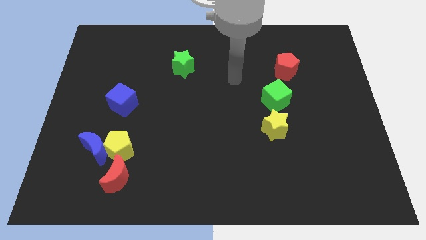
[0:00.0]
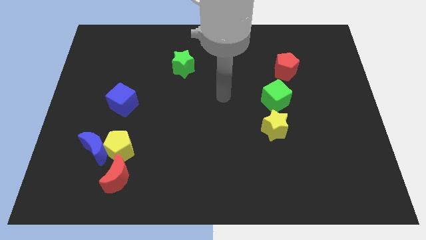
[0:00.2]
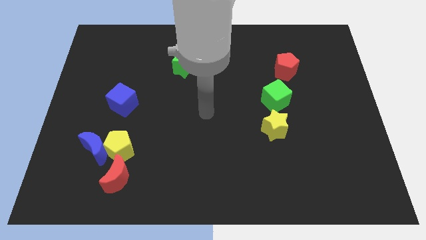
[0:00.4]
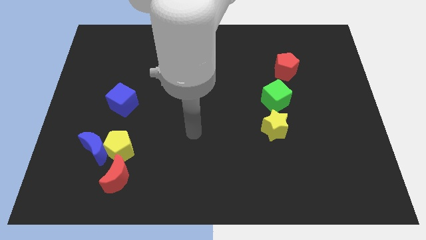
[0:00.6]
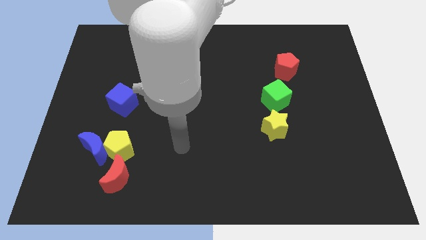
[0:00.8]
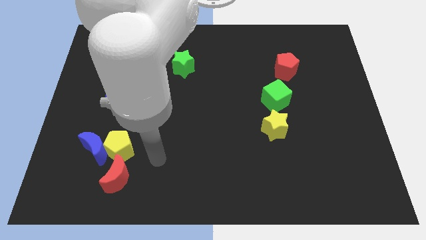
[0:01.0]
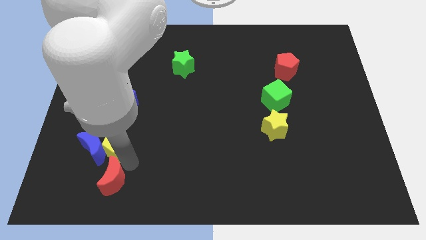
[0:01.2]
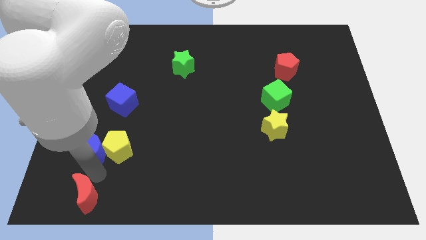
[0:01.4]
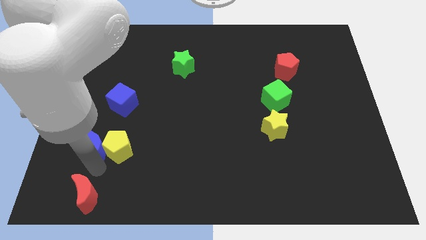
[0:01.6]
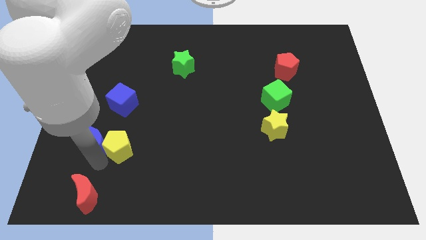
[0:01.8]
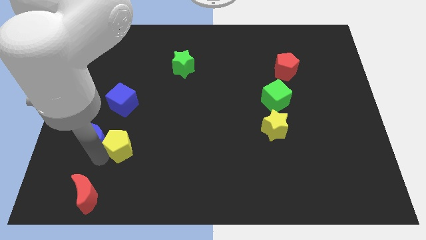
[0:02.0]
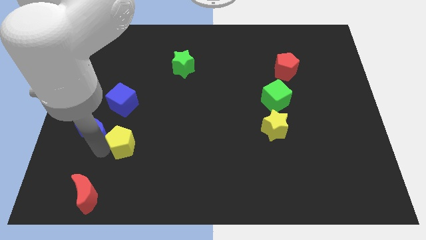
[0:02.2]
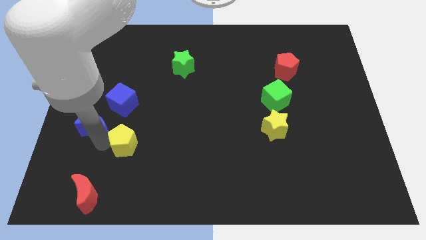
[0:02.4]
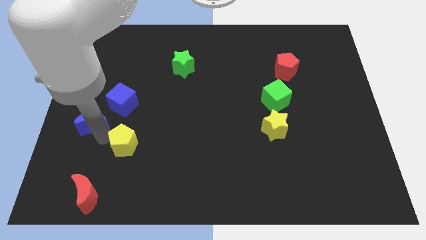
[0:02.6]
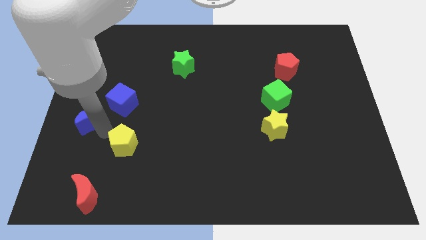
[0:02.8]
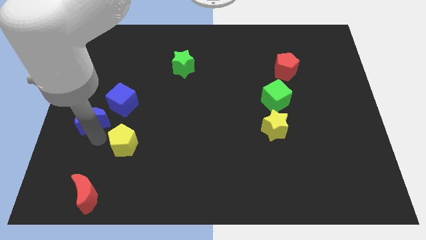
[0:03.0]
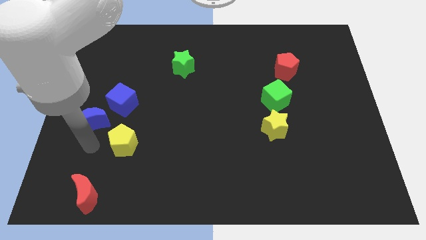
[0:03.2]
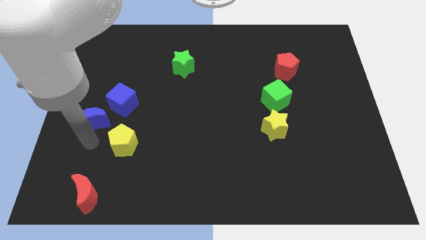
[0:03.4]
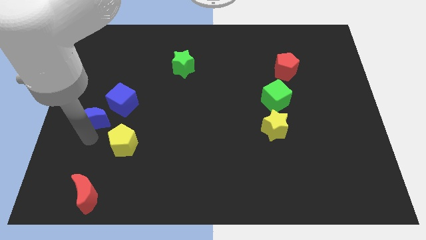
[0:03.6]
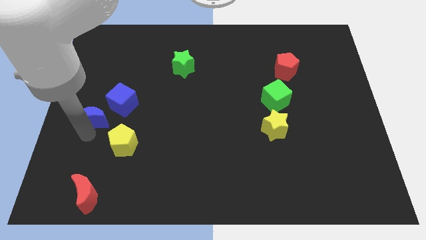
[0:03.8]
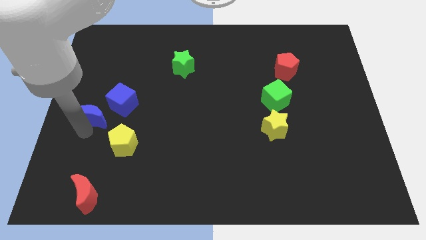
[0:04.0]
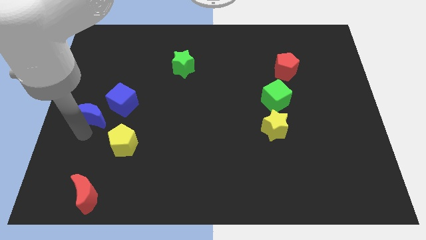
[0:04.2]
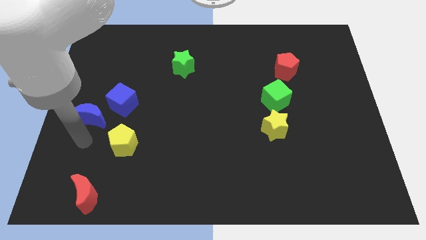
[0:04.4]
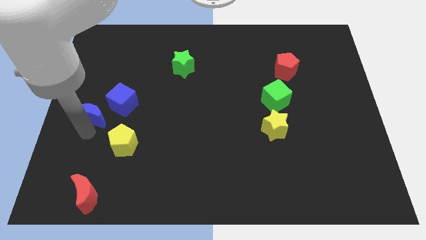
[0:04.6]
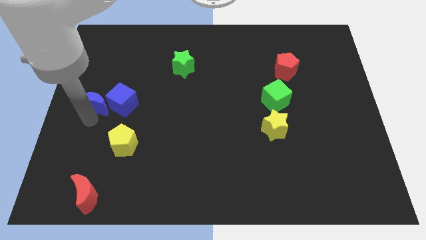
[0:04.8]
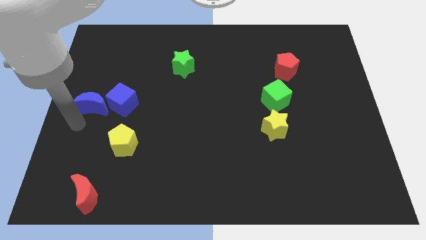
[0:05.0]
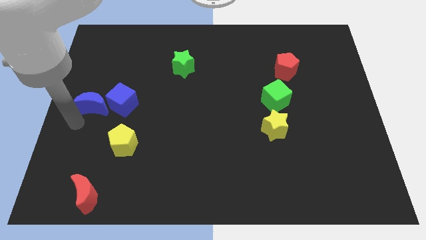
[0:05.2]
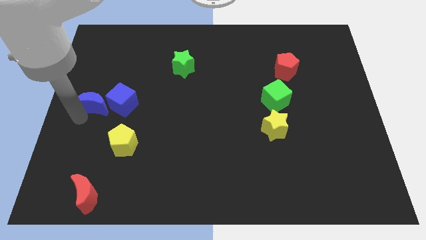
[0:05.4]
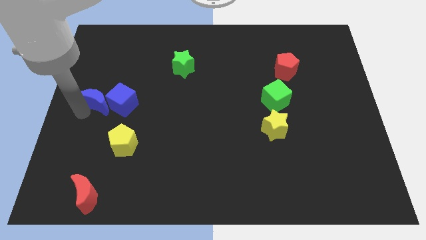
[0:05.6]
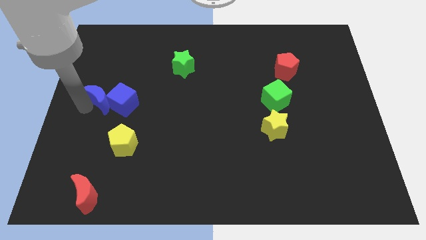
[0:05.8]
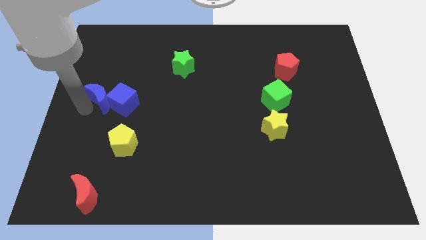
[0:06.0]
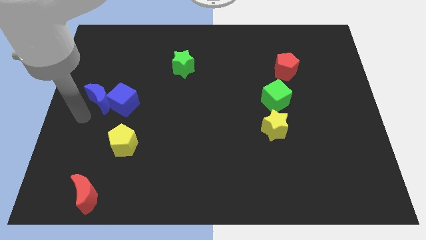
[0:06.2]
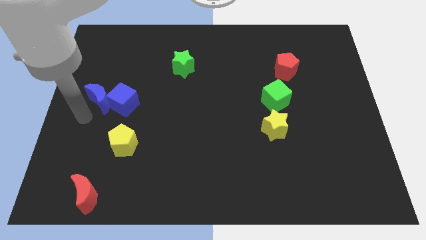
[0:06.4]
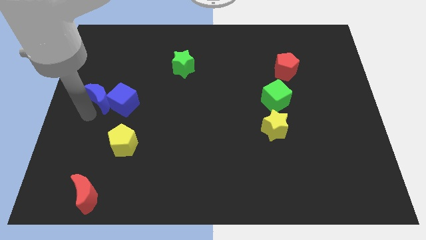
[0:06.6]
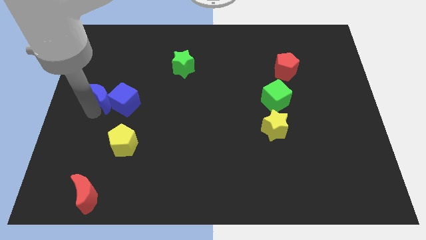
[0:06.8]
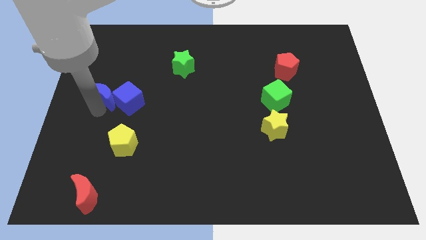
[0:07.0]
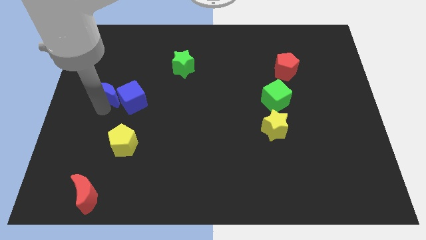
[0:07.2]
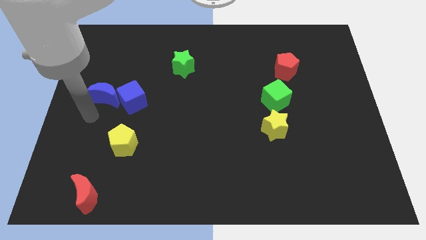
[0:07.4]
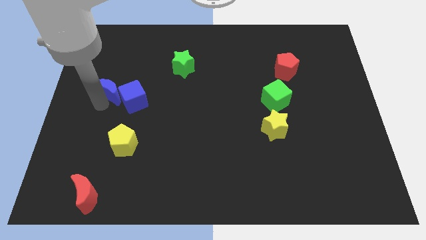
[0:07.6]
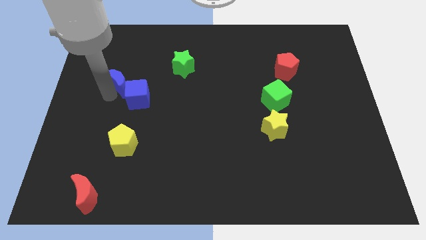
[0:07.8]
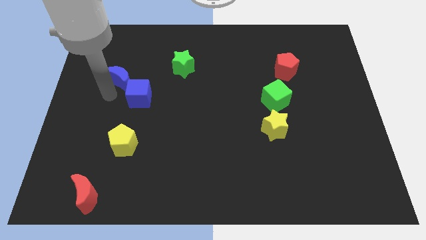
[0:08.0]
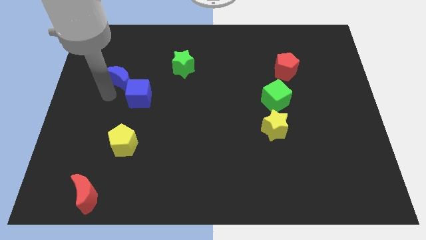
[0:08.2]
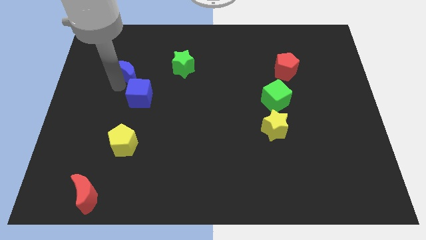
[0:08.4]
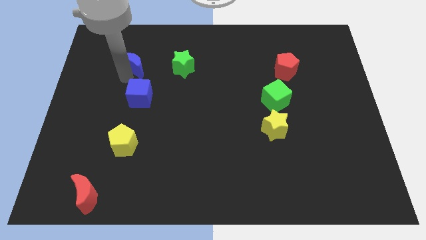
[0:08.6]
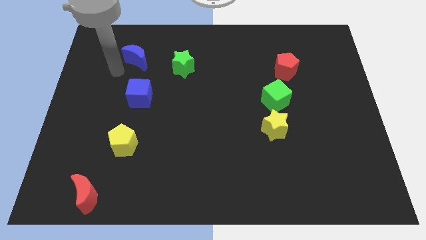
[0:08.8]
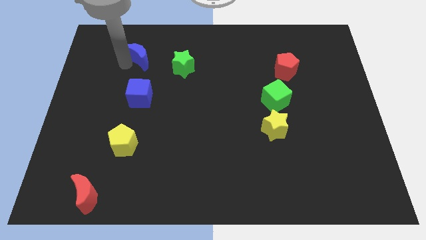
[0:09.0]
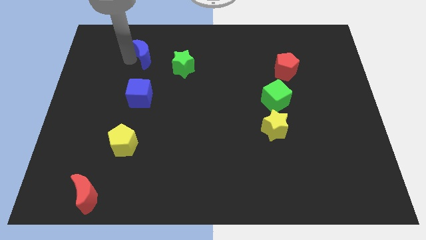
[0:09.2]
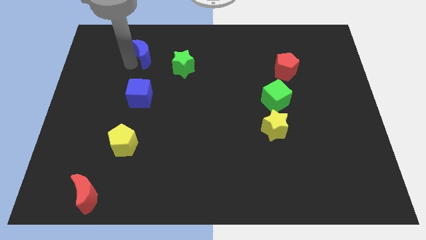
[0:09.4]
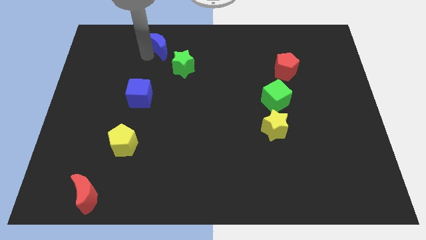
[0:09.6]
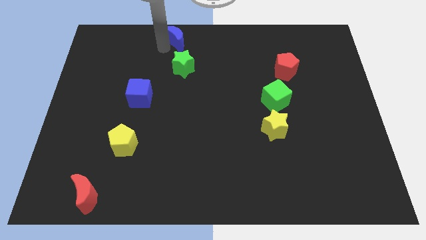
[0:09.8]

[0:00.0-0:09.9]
put the blue moon to the top
